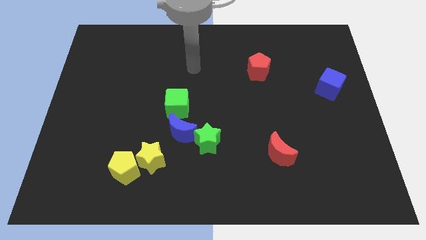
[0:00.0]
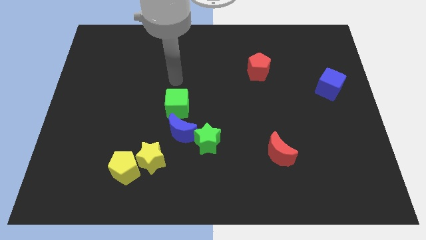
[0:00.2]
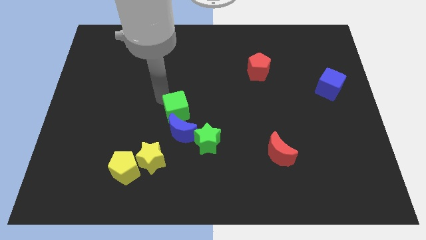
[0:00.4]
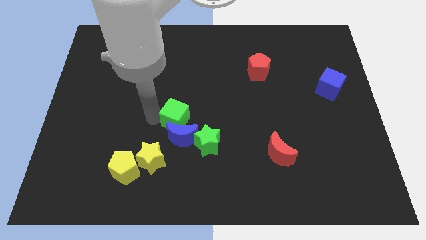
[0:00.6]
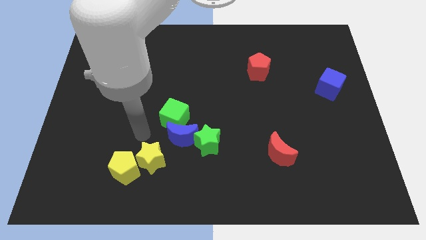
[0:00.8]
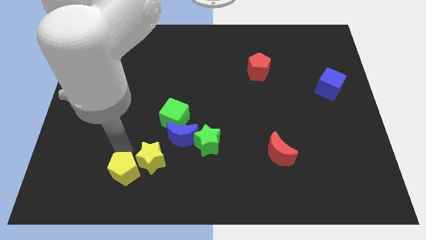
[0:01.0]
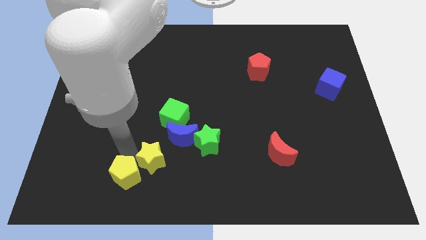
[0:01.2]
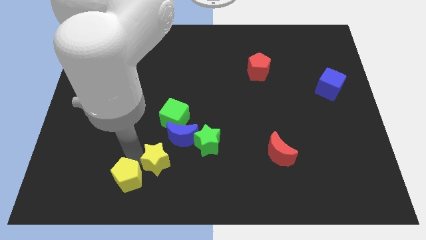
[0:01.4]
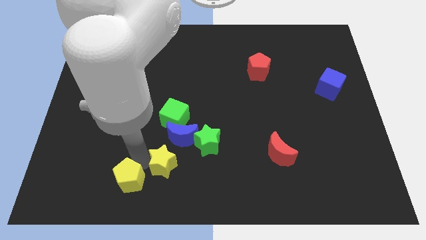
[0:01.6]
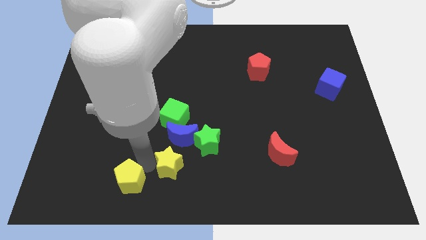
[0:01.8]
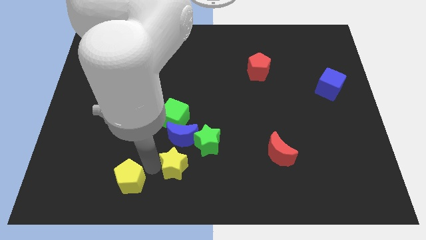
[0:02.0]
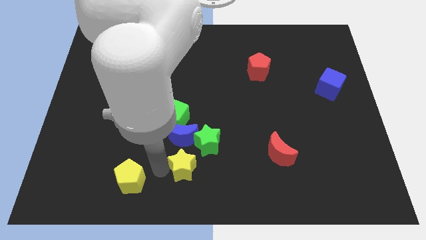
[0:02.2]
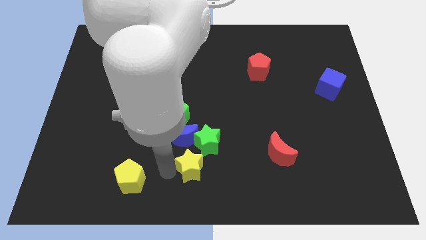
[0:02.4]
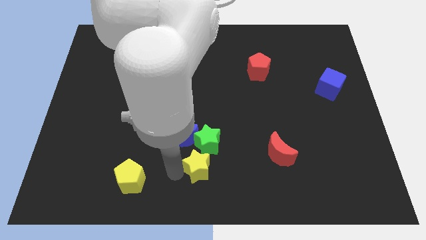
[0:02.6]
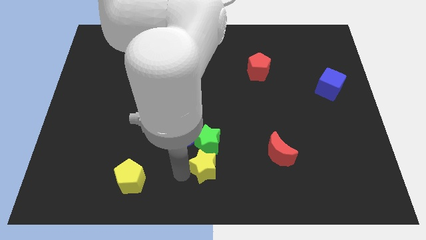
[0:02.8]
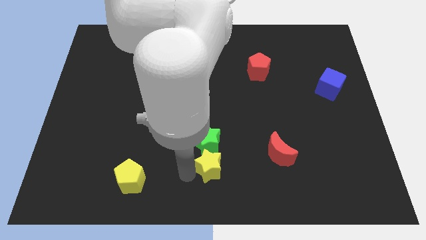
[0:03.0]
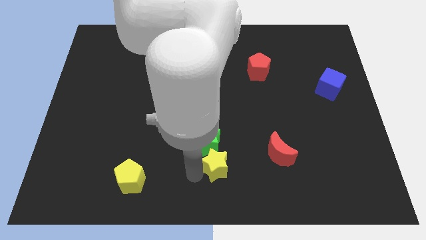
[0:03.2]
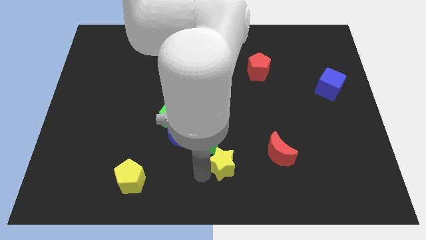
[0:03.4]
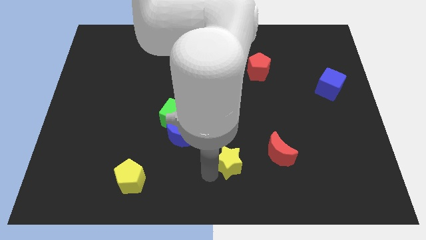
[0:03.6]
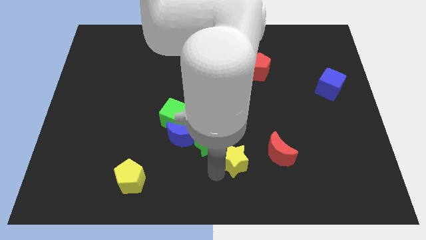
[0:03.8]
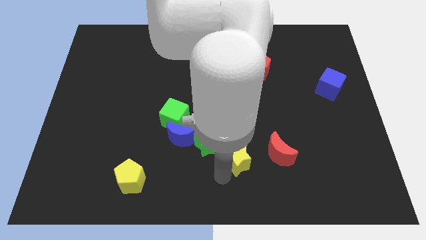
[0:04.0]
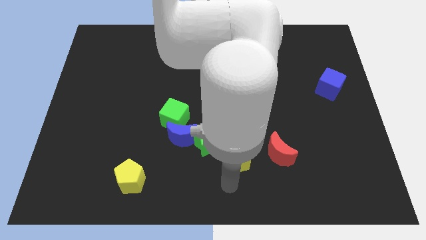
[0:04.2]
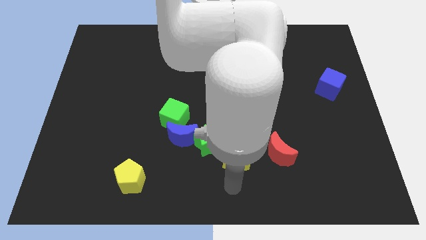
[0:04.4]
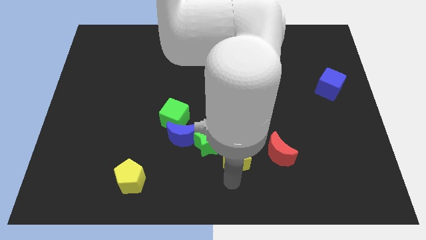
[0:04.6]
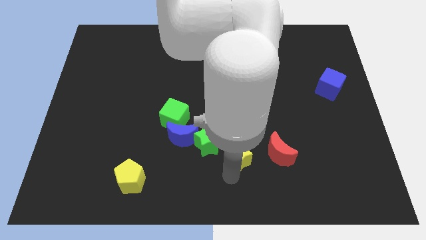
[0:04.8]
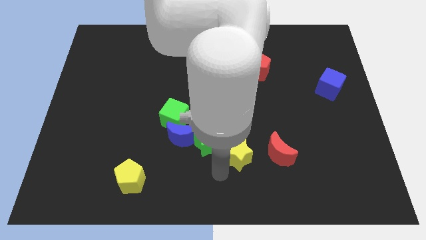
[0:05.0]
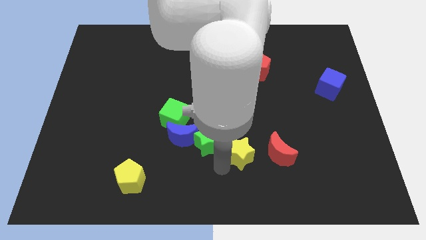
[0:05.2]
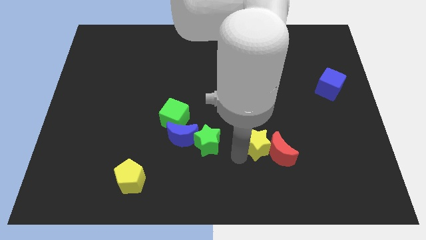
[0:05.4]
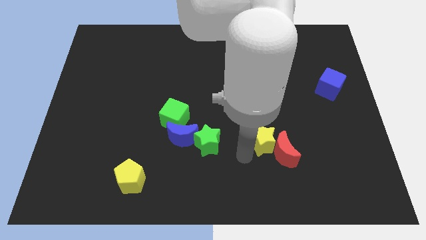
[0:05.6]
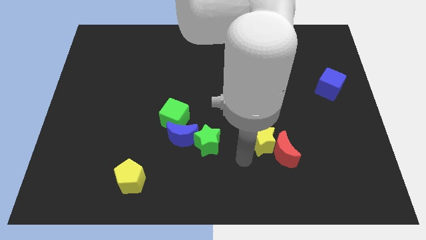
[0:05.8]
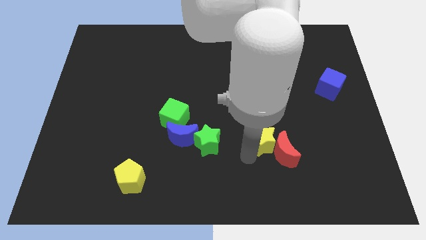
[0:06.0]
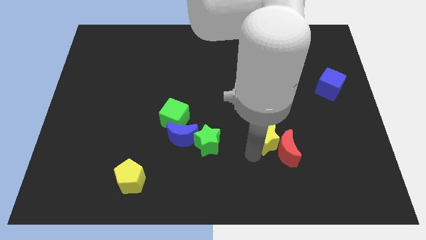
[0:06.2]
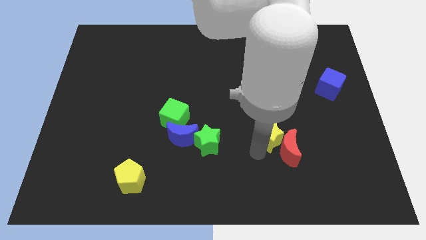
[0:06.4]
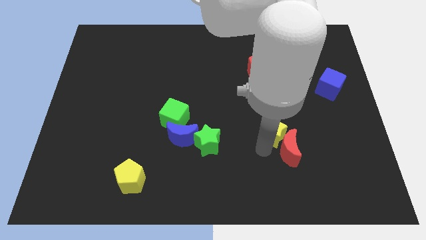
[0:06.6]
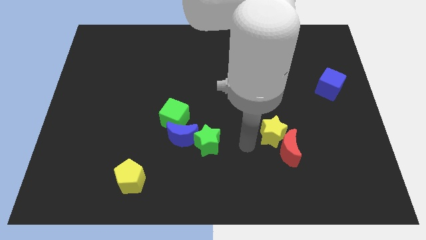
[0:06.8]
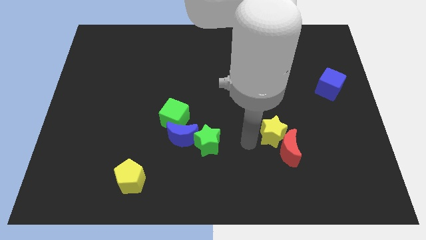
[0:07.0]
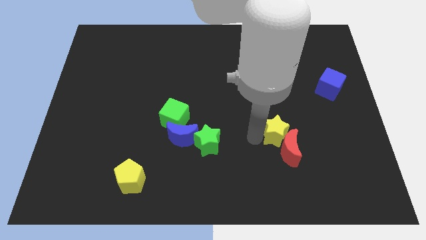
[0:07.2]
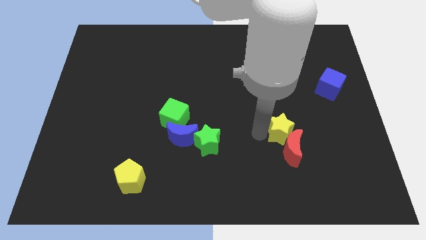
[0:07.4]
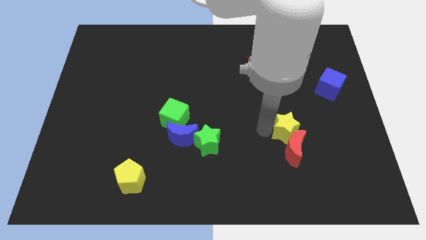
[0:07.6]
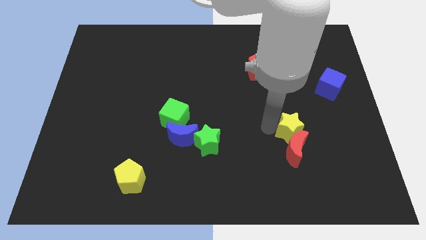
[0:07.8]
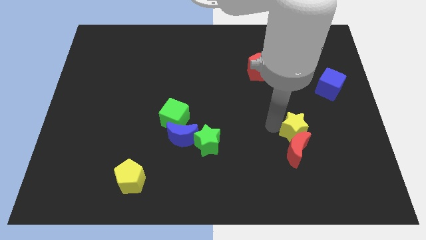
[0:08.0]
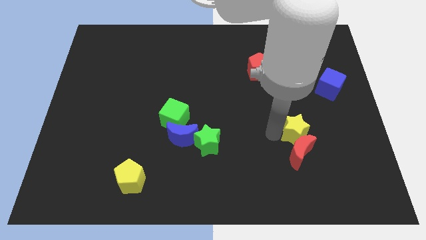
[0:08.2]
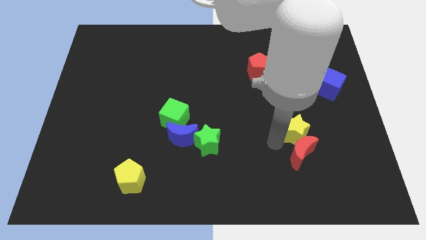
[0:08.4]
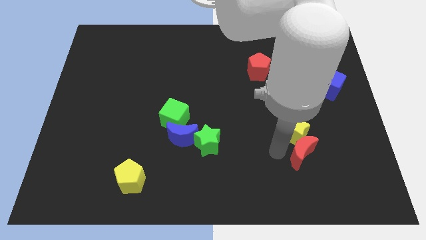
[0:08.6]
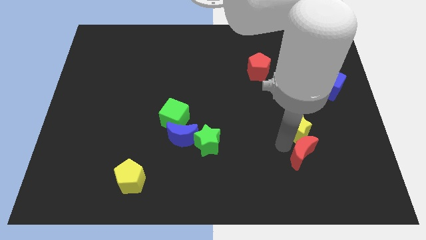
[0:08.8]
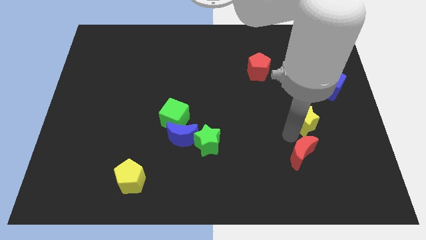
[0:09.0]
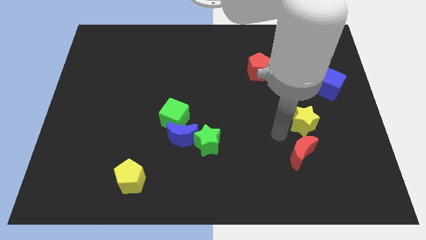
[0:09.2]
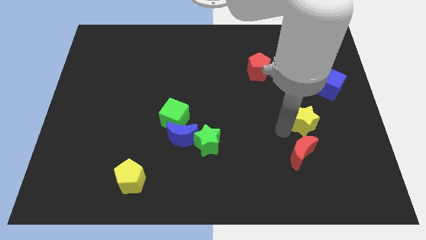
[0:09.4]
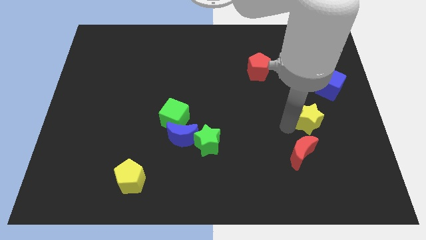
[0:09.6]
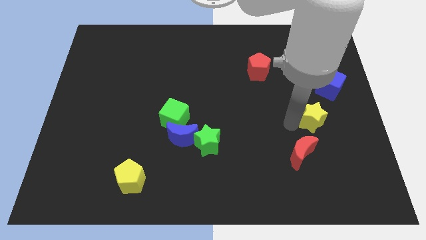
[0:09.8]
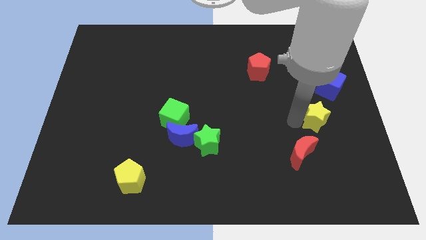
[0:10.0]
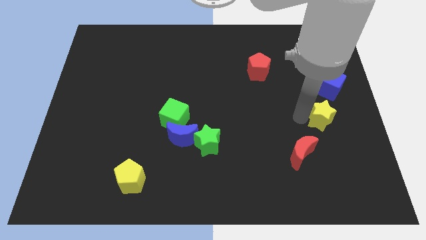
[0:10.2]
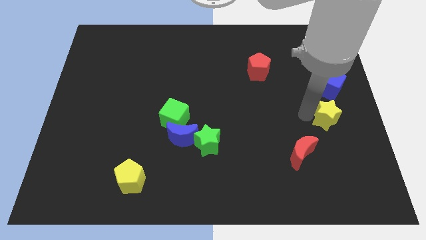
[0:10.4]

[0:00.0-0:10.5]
slide the yellow star to the right side

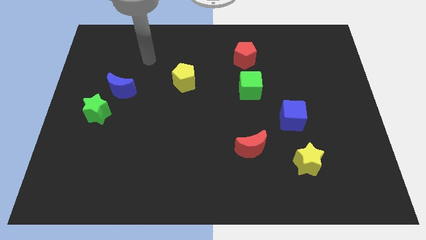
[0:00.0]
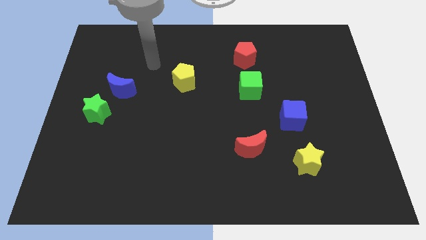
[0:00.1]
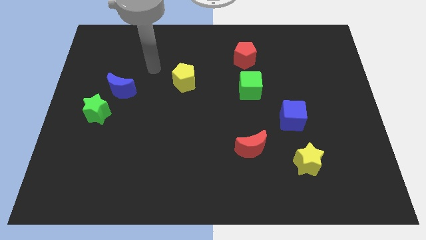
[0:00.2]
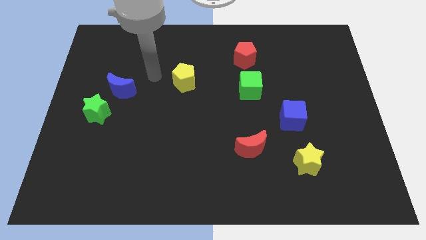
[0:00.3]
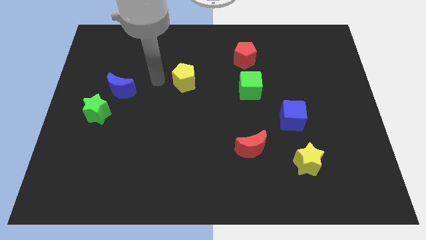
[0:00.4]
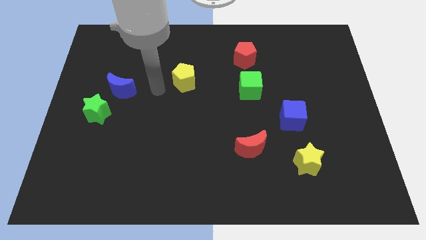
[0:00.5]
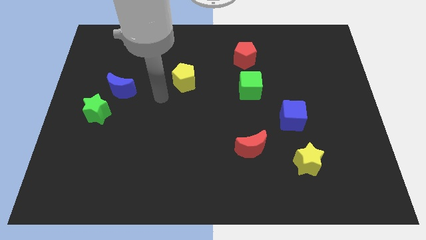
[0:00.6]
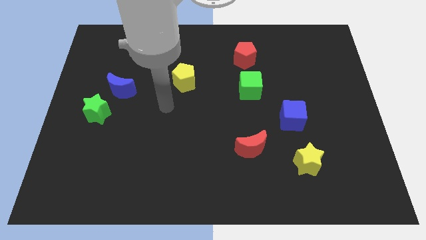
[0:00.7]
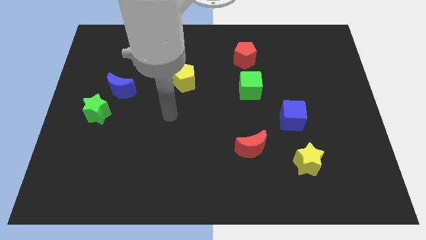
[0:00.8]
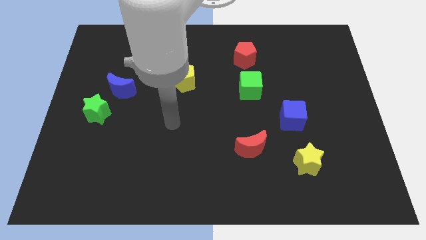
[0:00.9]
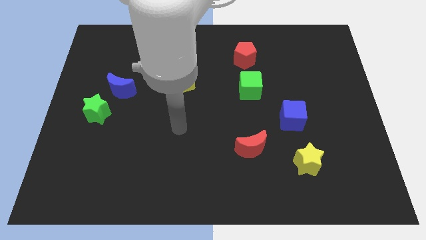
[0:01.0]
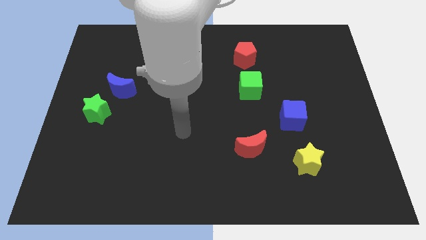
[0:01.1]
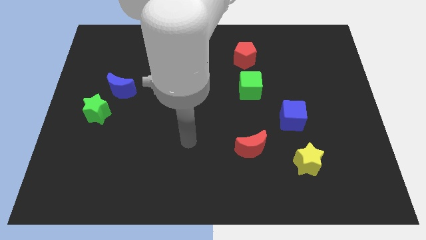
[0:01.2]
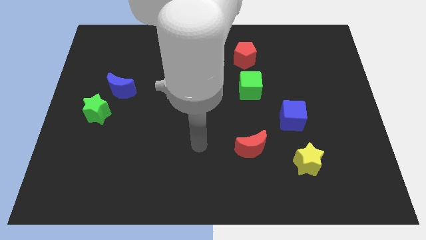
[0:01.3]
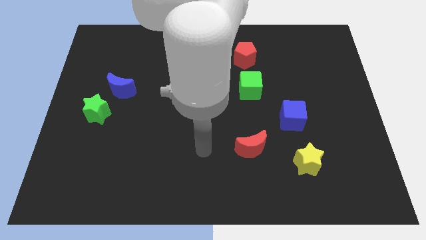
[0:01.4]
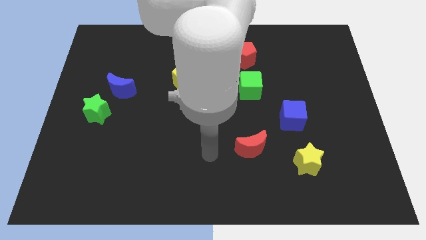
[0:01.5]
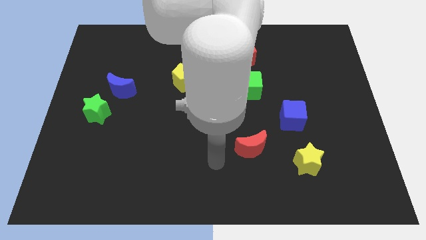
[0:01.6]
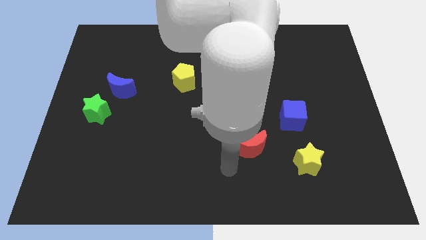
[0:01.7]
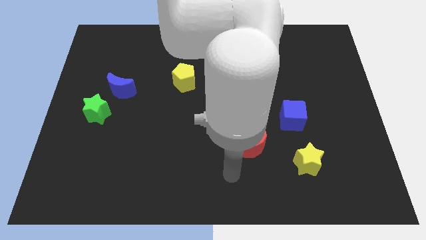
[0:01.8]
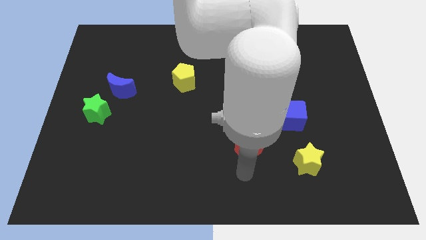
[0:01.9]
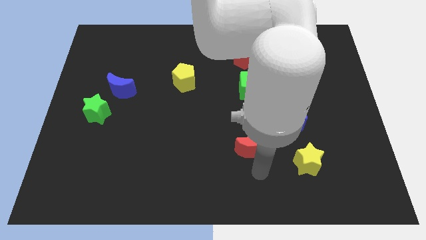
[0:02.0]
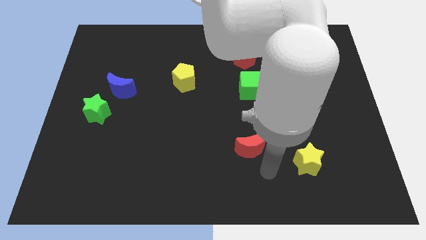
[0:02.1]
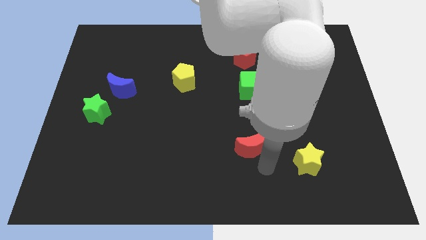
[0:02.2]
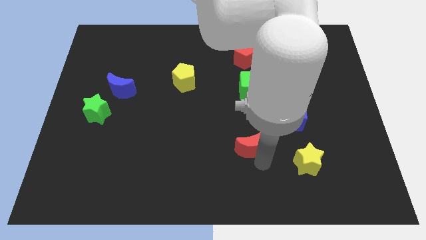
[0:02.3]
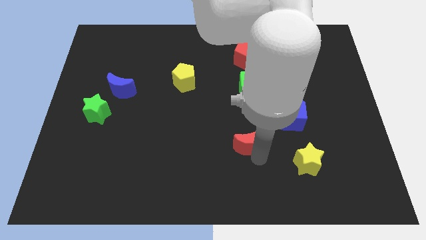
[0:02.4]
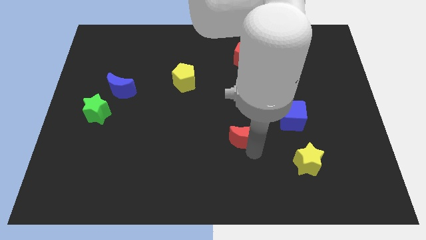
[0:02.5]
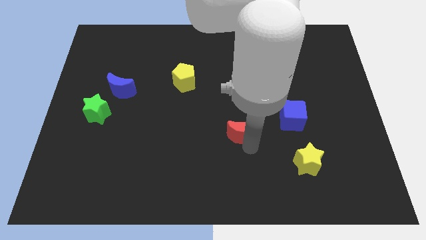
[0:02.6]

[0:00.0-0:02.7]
push the red moon to the middle of the board
